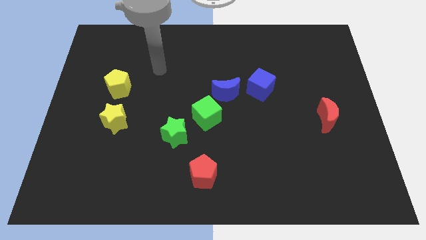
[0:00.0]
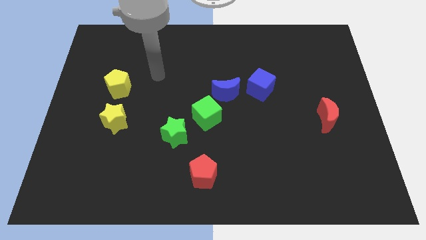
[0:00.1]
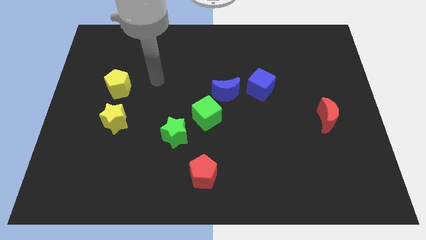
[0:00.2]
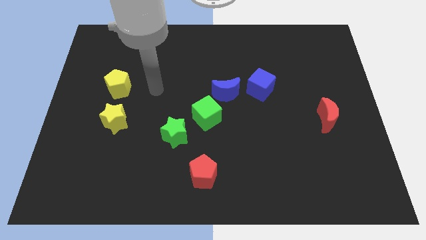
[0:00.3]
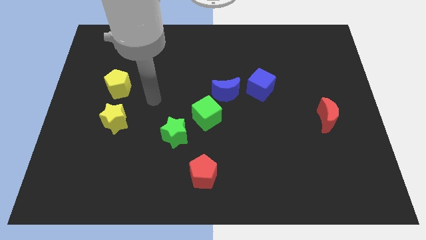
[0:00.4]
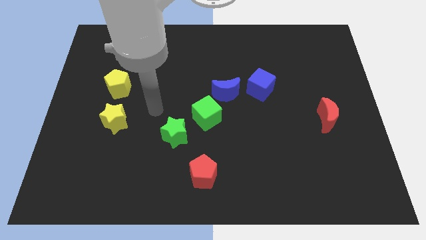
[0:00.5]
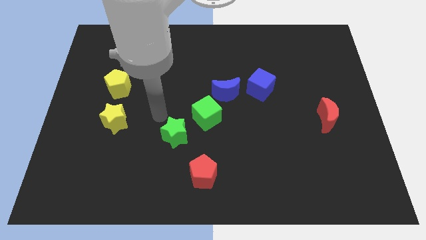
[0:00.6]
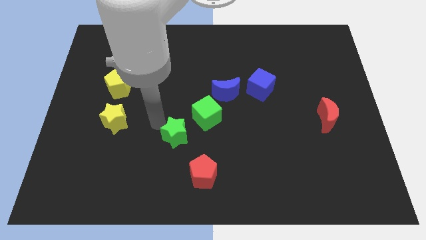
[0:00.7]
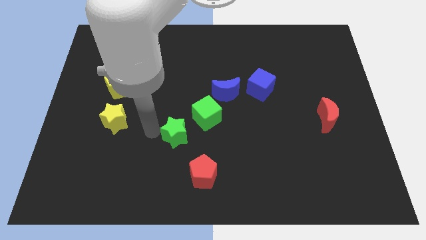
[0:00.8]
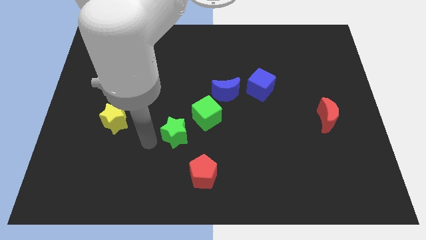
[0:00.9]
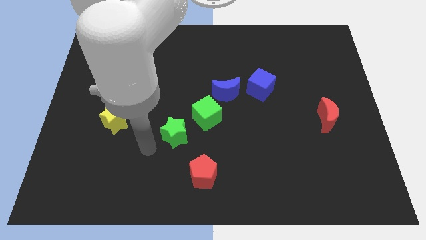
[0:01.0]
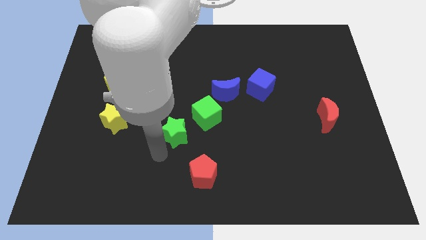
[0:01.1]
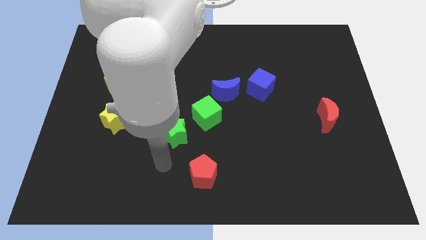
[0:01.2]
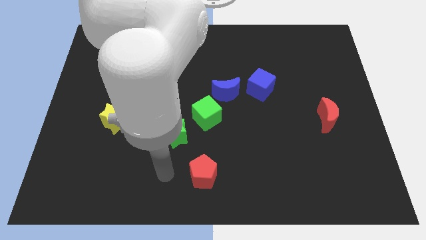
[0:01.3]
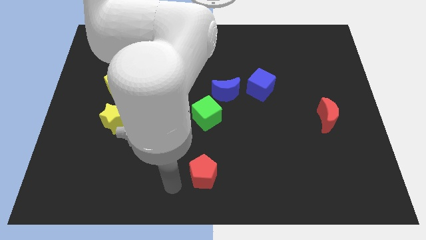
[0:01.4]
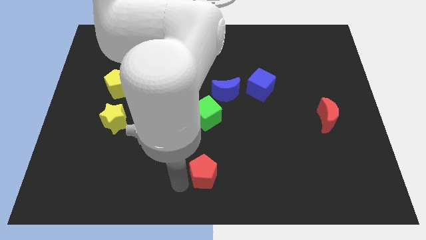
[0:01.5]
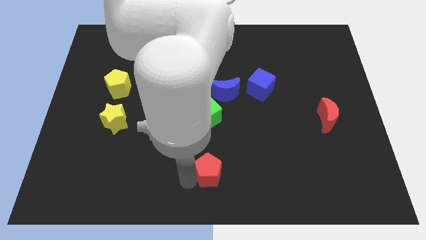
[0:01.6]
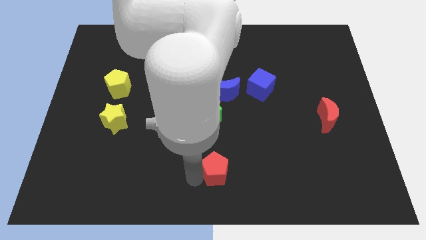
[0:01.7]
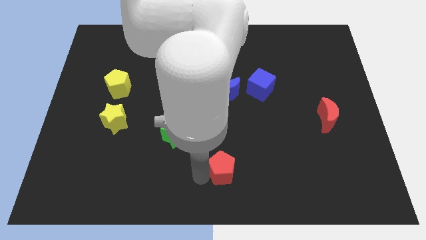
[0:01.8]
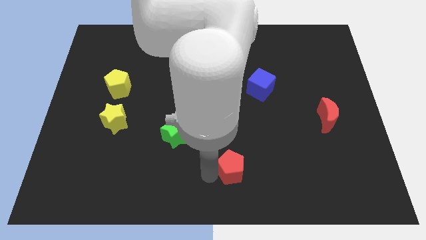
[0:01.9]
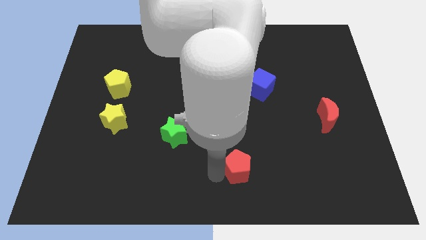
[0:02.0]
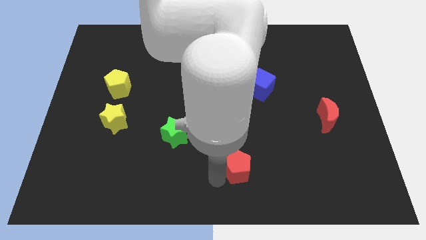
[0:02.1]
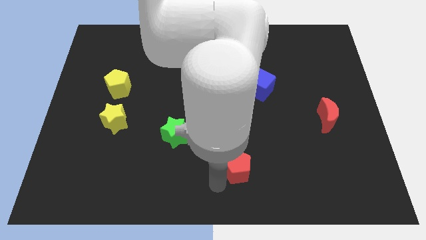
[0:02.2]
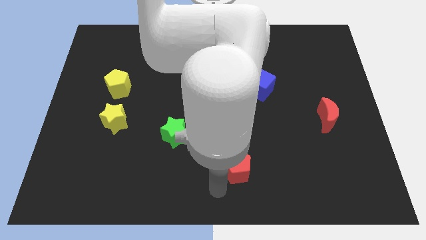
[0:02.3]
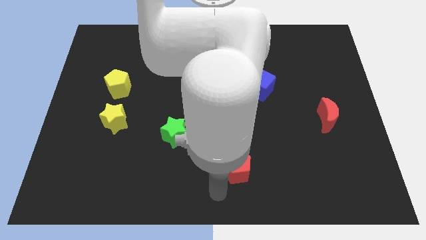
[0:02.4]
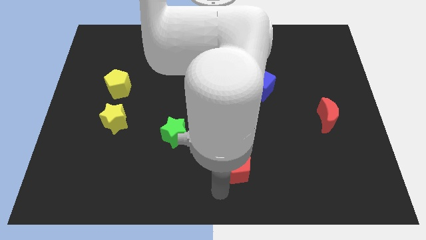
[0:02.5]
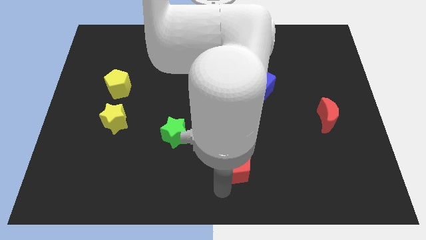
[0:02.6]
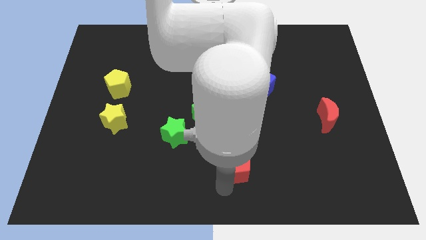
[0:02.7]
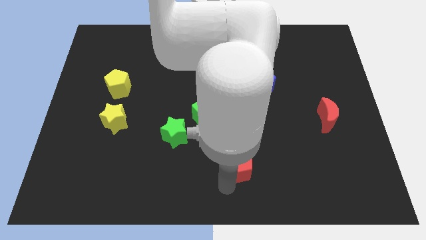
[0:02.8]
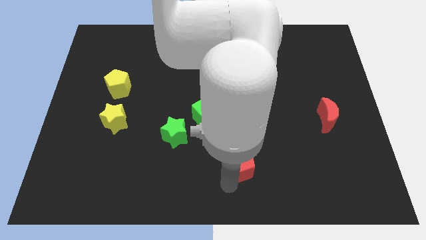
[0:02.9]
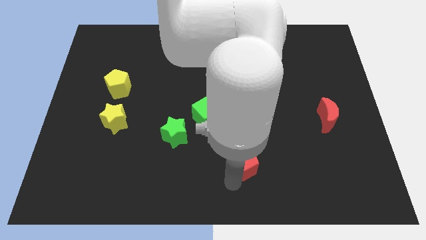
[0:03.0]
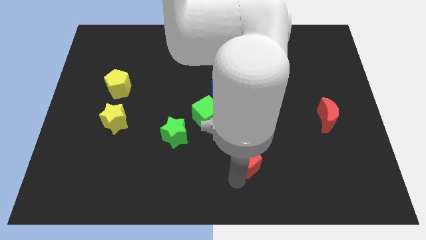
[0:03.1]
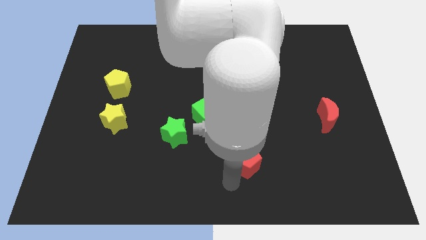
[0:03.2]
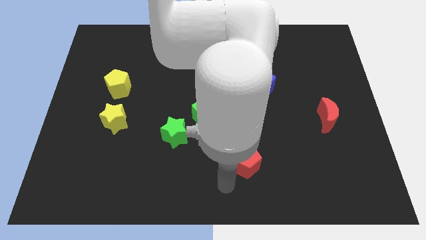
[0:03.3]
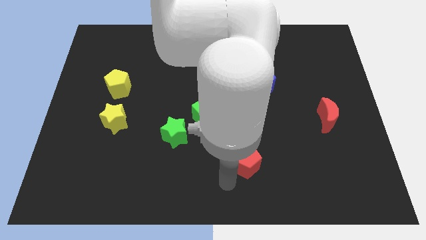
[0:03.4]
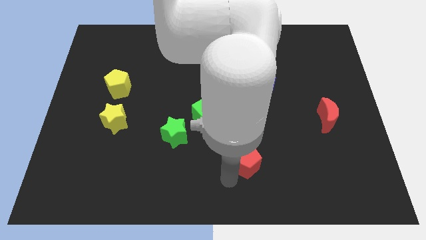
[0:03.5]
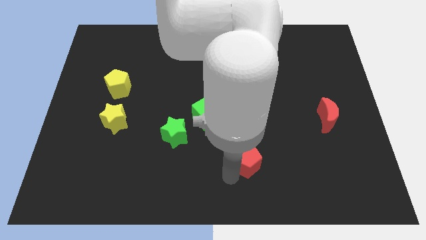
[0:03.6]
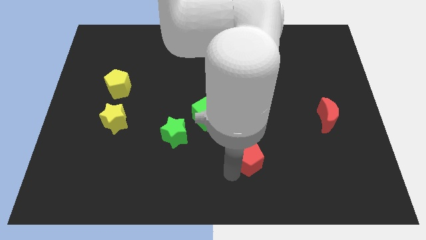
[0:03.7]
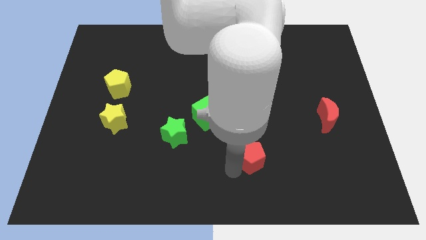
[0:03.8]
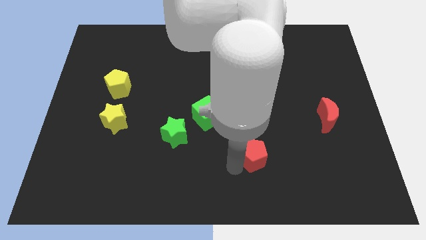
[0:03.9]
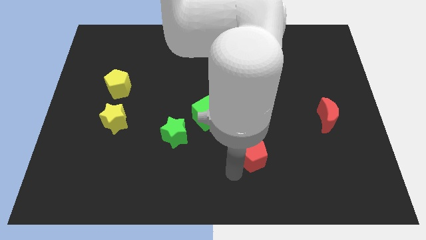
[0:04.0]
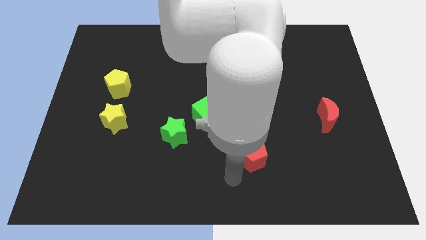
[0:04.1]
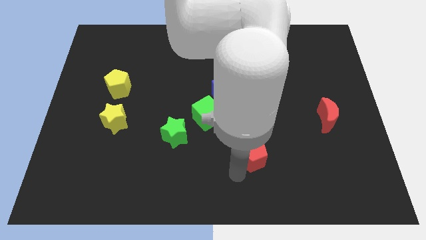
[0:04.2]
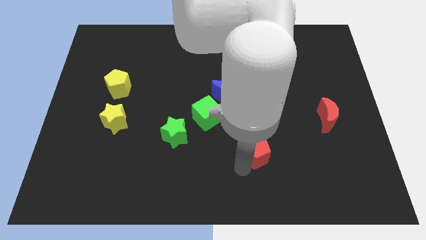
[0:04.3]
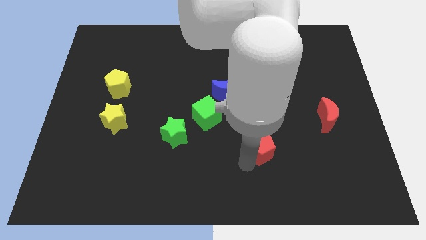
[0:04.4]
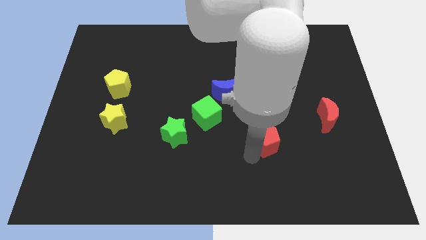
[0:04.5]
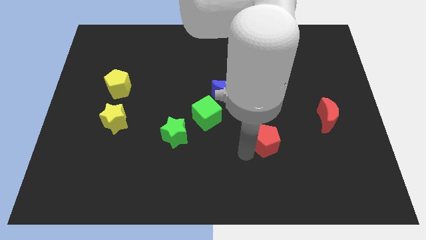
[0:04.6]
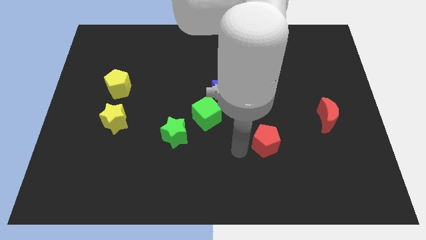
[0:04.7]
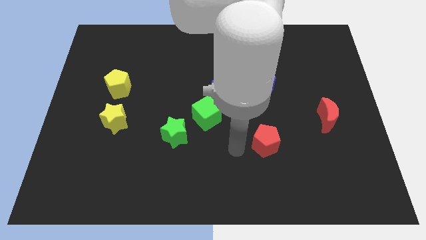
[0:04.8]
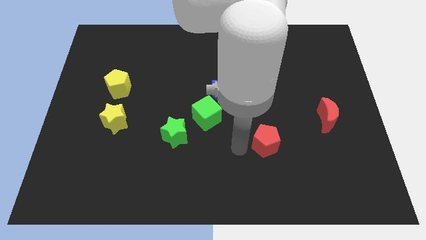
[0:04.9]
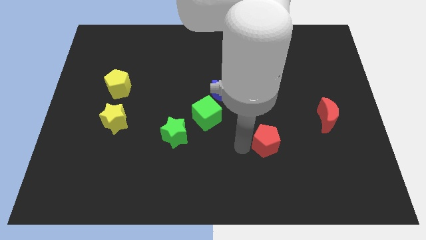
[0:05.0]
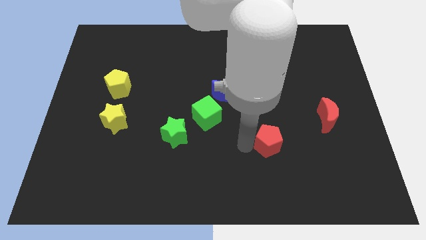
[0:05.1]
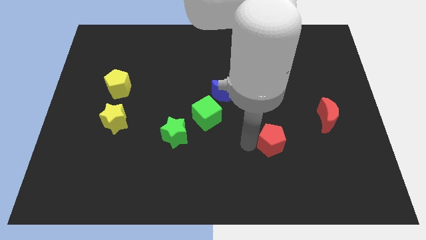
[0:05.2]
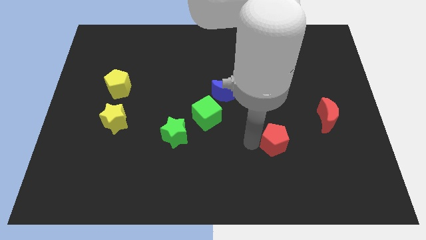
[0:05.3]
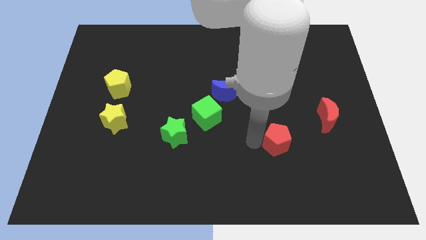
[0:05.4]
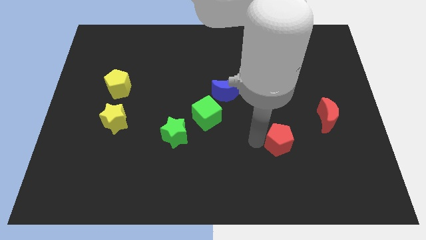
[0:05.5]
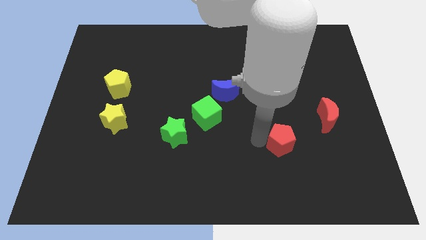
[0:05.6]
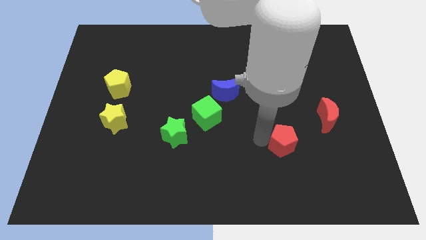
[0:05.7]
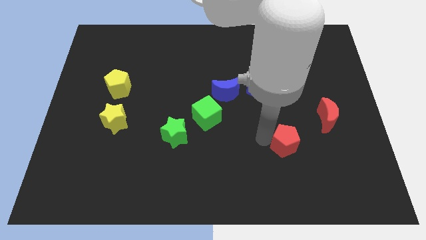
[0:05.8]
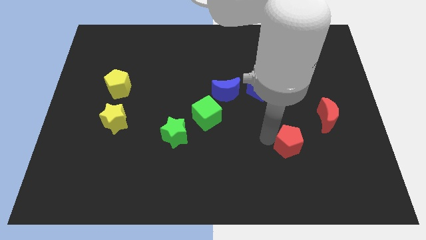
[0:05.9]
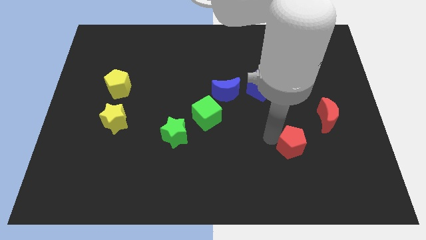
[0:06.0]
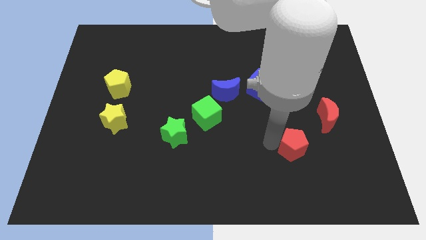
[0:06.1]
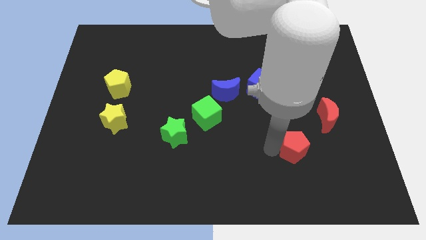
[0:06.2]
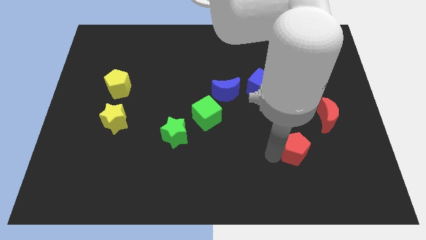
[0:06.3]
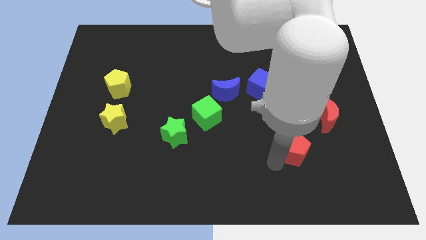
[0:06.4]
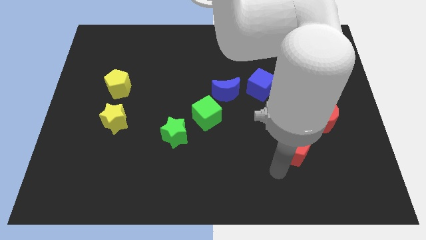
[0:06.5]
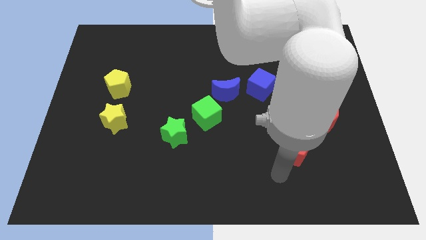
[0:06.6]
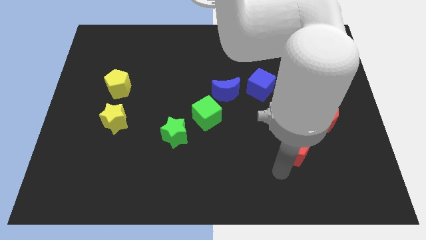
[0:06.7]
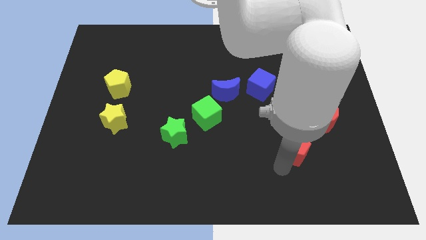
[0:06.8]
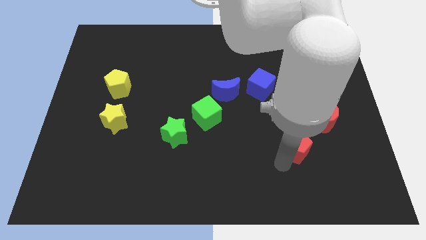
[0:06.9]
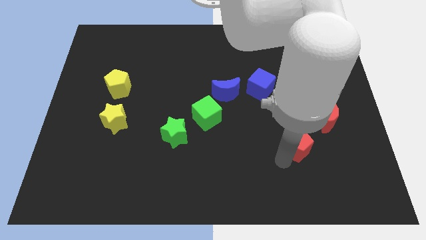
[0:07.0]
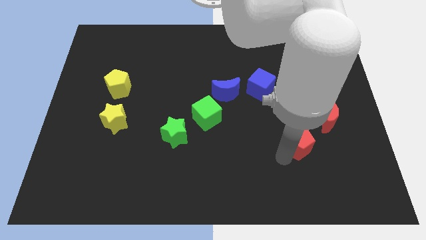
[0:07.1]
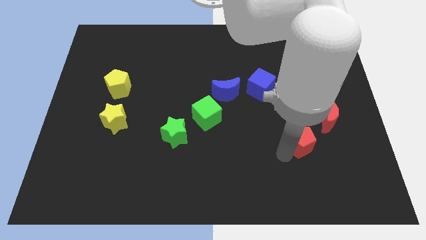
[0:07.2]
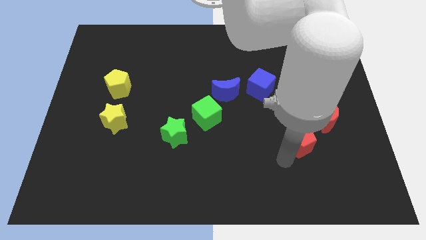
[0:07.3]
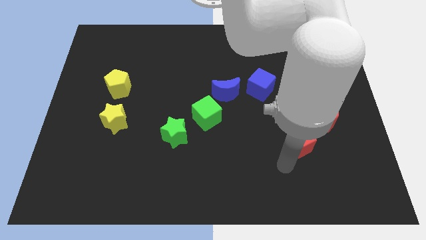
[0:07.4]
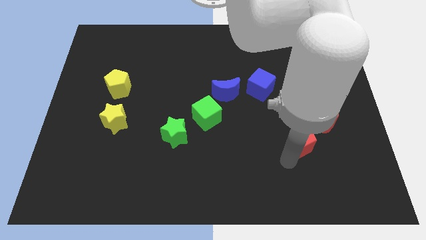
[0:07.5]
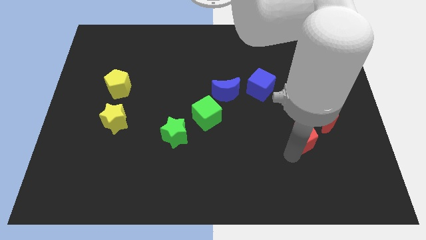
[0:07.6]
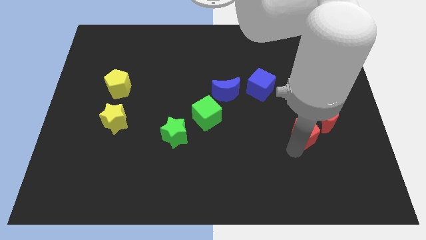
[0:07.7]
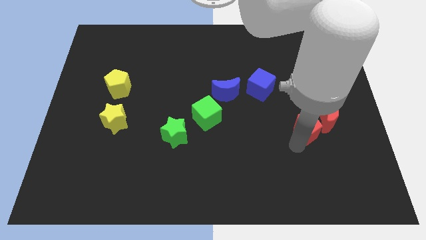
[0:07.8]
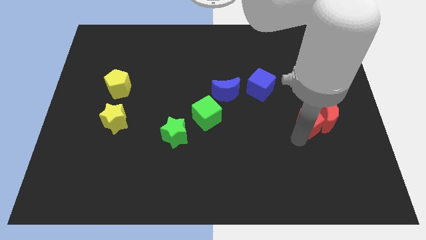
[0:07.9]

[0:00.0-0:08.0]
put the red pentagon next to the red moon
